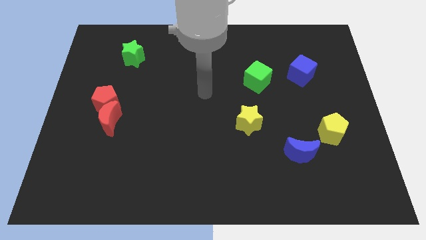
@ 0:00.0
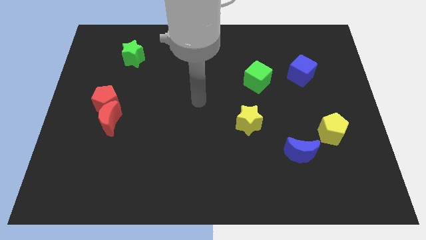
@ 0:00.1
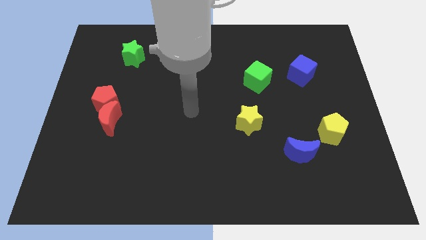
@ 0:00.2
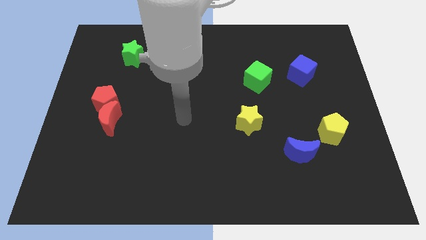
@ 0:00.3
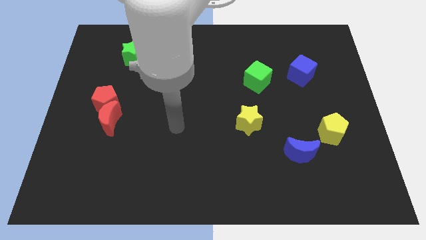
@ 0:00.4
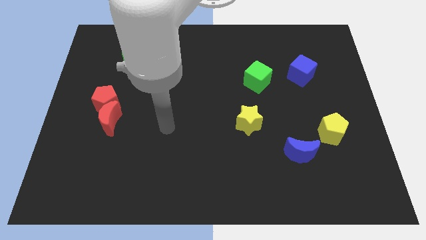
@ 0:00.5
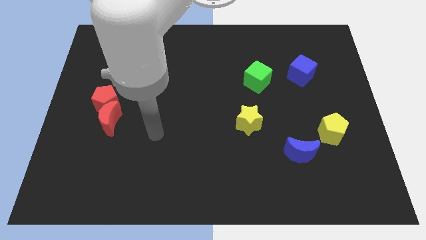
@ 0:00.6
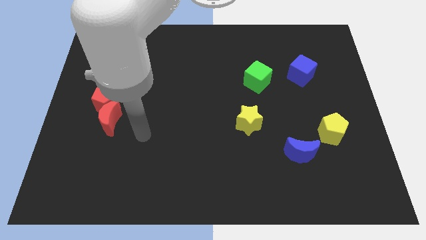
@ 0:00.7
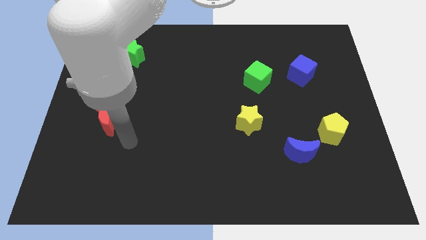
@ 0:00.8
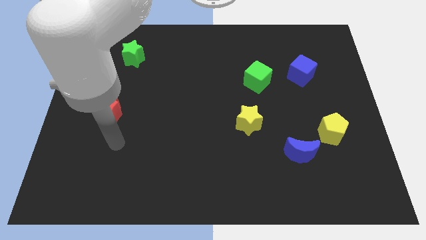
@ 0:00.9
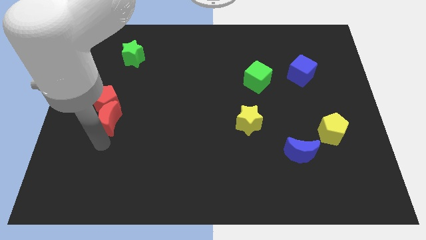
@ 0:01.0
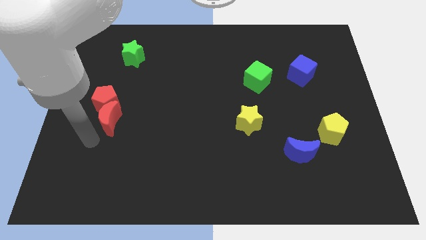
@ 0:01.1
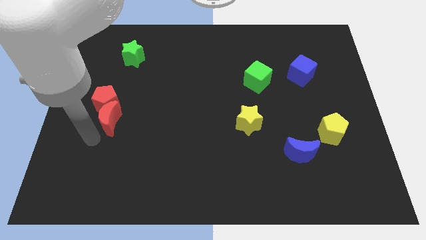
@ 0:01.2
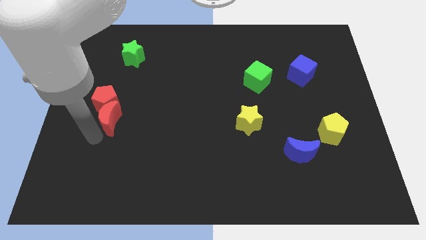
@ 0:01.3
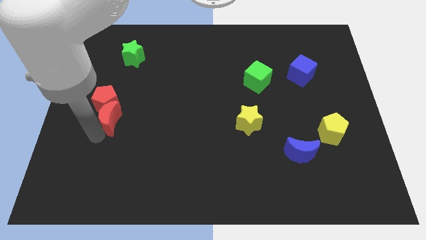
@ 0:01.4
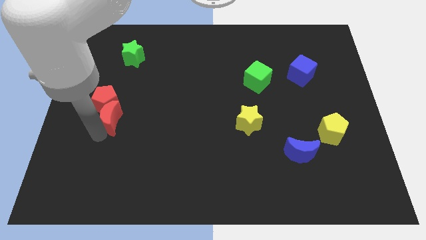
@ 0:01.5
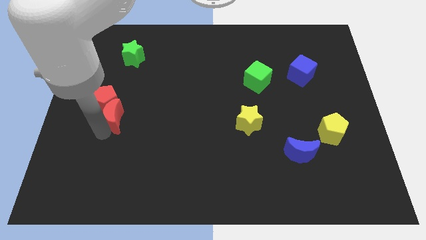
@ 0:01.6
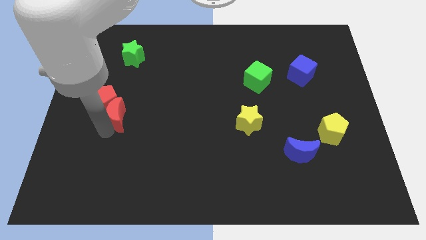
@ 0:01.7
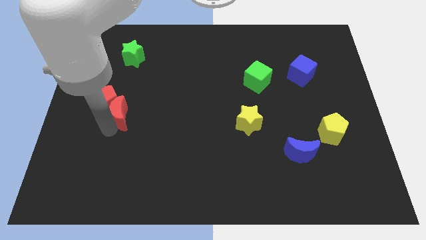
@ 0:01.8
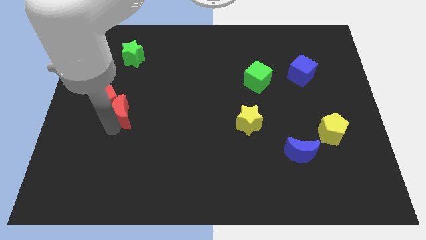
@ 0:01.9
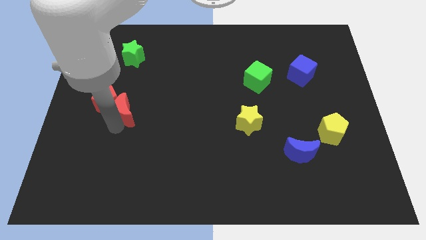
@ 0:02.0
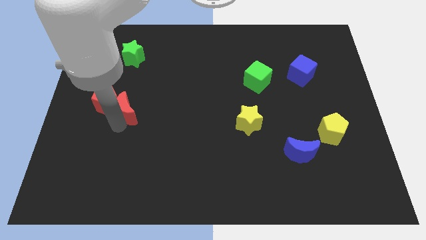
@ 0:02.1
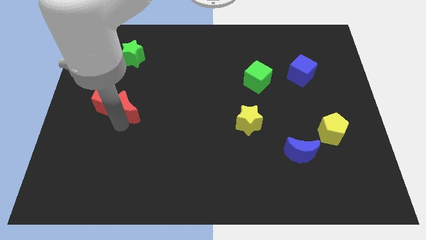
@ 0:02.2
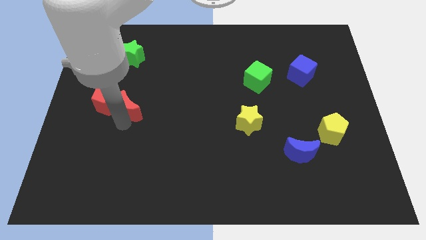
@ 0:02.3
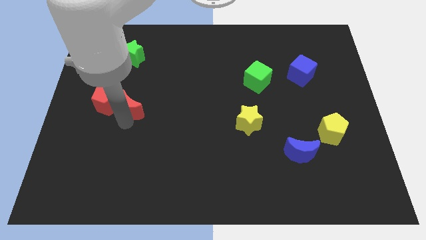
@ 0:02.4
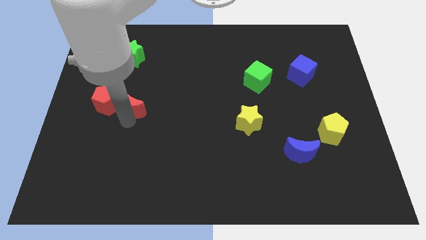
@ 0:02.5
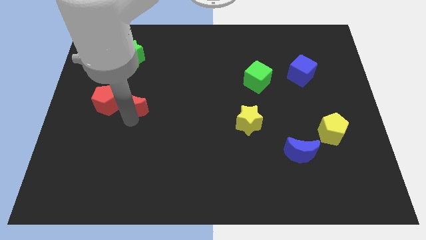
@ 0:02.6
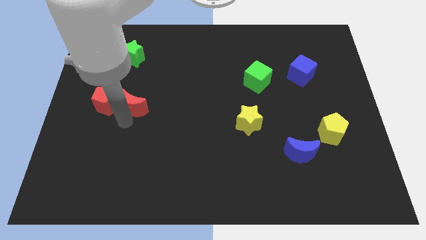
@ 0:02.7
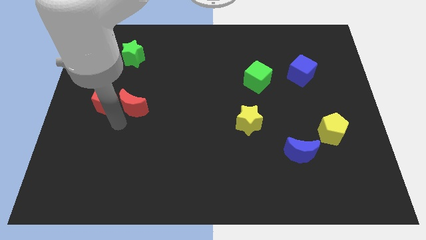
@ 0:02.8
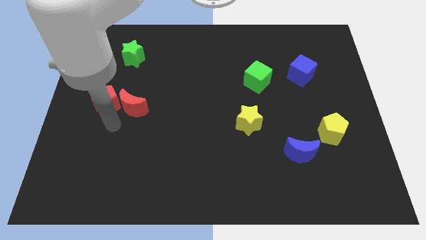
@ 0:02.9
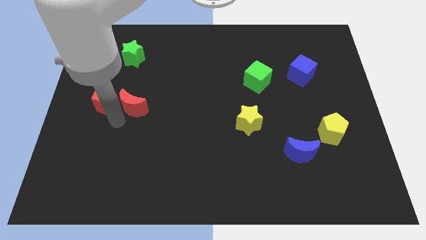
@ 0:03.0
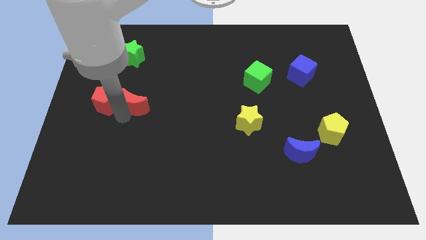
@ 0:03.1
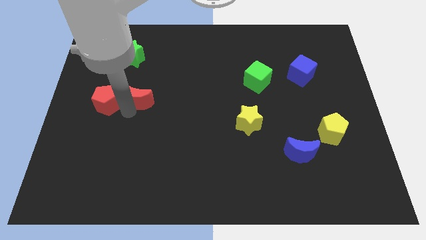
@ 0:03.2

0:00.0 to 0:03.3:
slide the red moon diagonally upwards and to the right a little bit

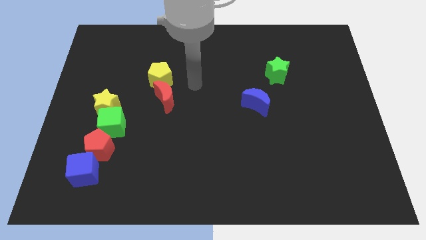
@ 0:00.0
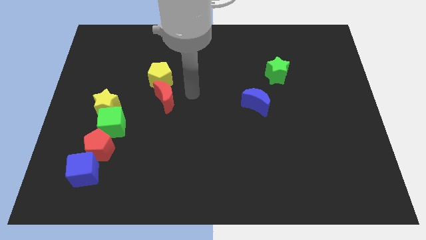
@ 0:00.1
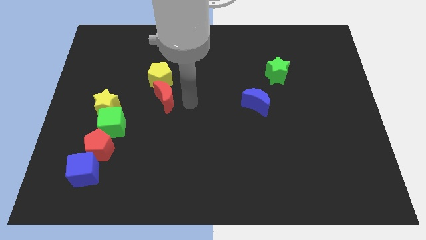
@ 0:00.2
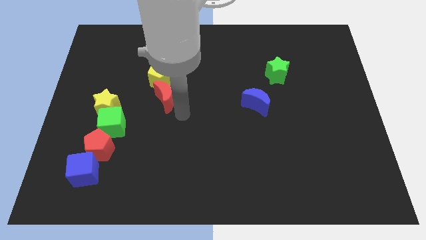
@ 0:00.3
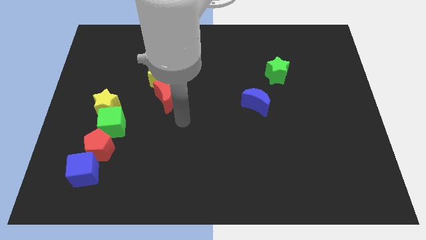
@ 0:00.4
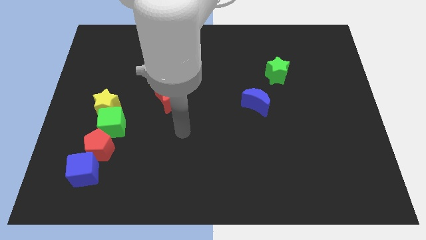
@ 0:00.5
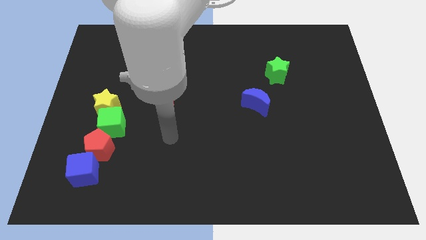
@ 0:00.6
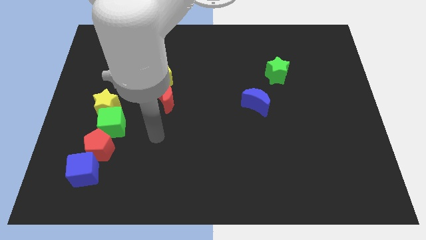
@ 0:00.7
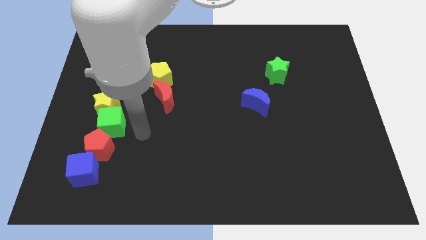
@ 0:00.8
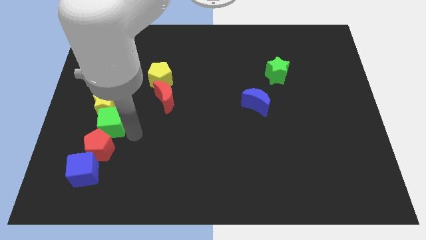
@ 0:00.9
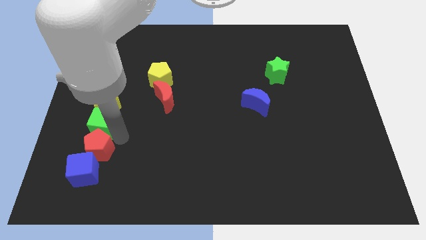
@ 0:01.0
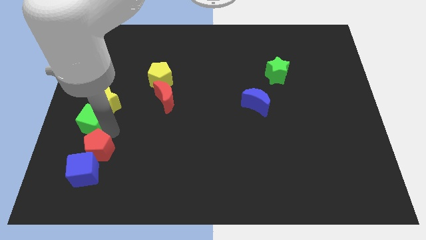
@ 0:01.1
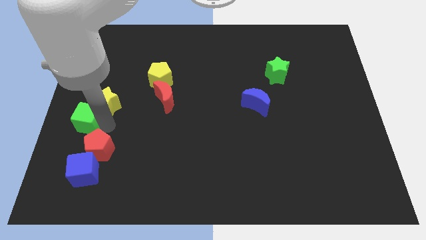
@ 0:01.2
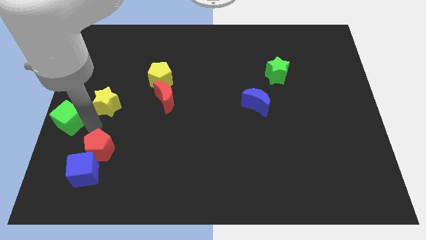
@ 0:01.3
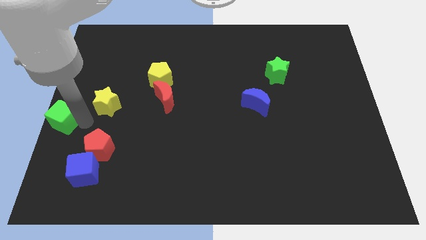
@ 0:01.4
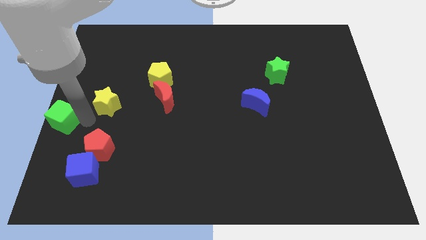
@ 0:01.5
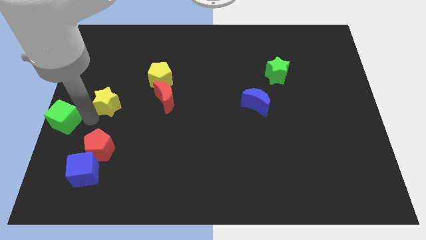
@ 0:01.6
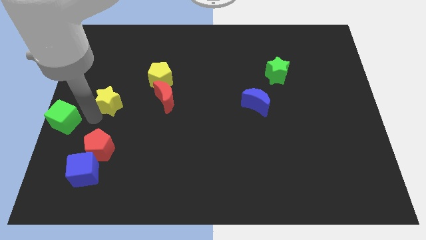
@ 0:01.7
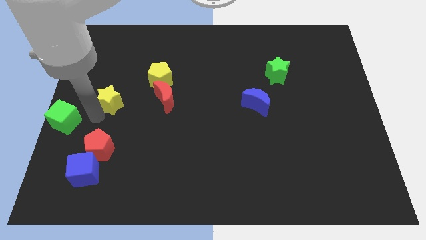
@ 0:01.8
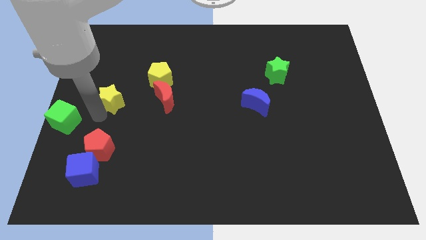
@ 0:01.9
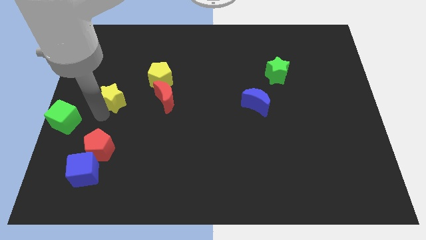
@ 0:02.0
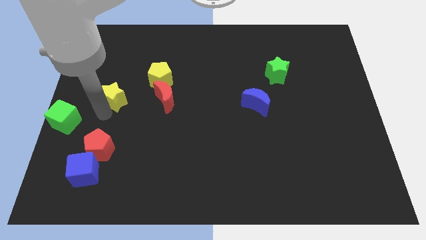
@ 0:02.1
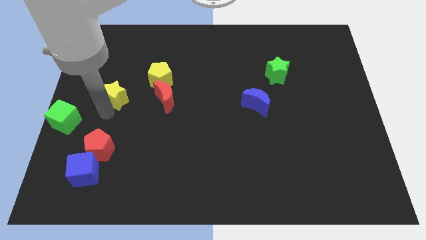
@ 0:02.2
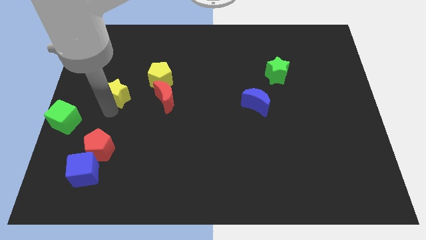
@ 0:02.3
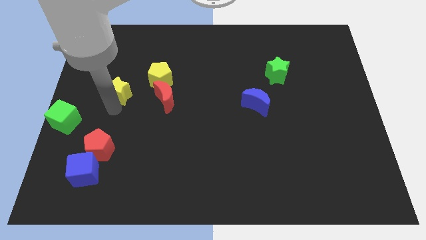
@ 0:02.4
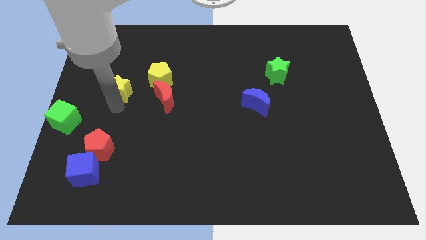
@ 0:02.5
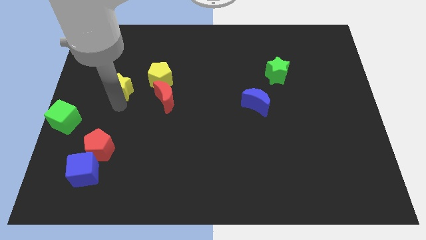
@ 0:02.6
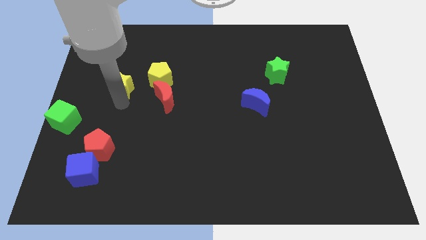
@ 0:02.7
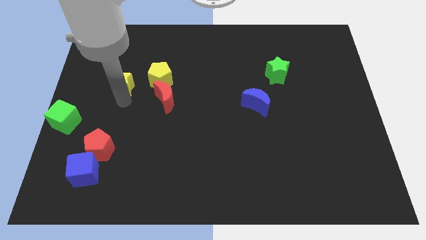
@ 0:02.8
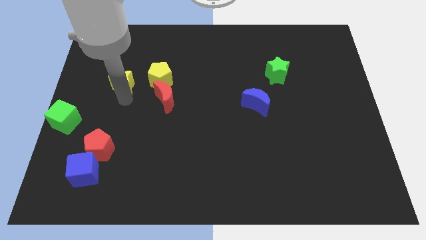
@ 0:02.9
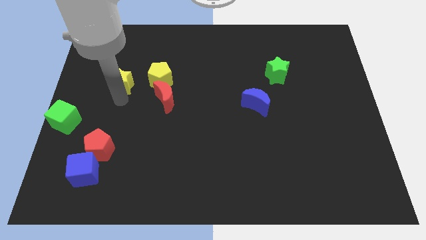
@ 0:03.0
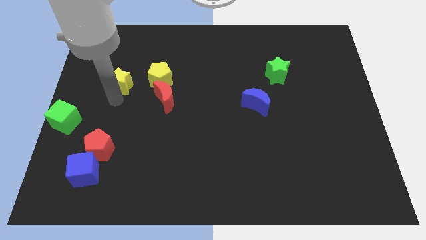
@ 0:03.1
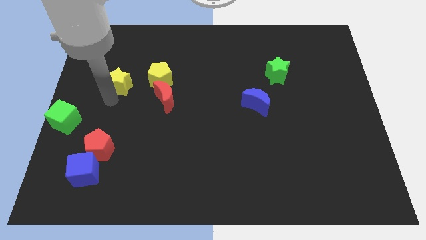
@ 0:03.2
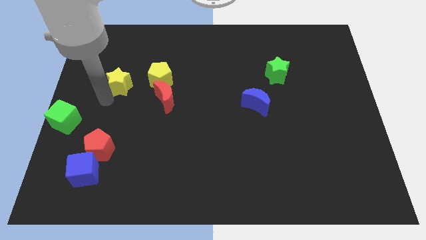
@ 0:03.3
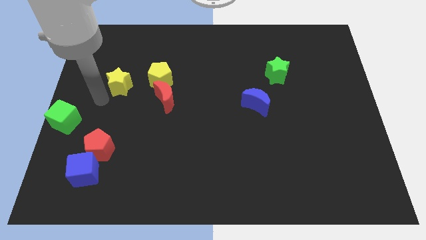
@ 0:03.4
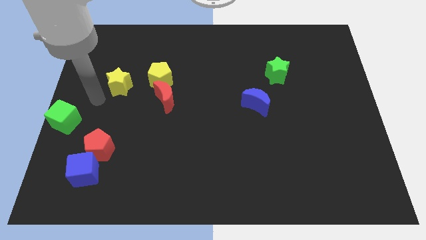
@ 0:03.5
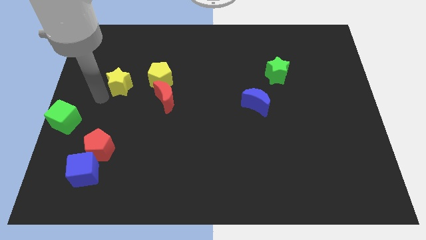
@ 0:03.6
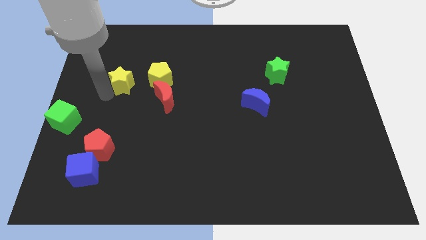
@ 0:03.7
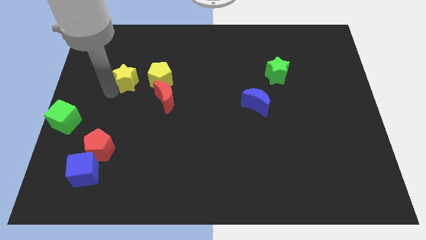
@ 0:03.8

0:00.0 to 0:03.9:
slightly move the yellow star upwards and to the right diagonally

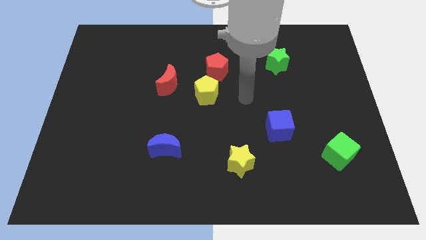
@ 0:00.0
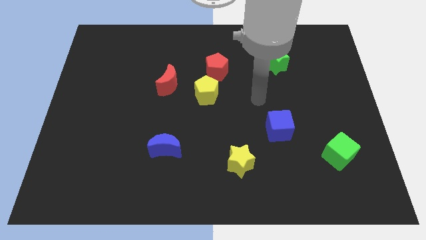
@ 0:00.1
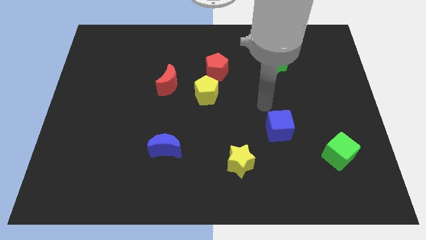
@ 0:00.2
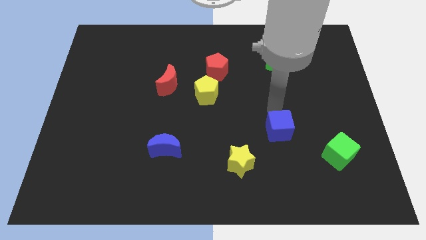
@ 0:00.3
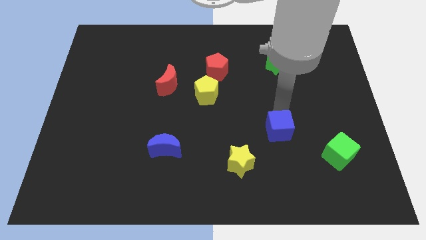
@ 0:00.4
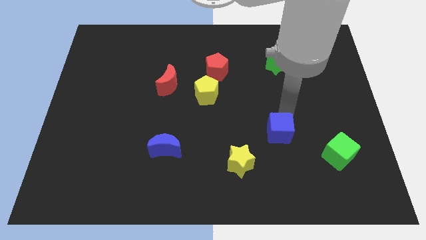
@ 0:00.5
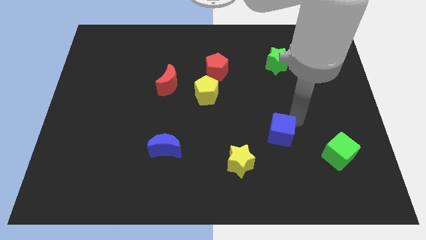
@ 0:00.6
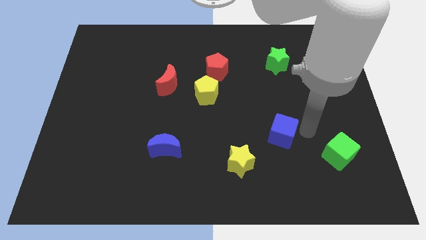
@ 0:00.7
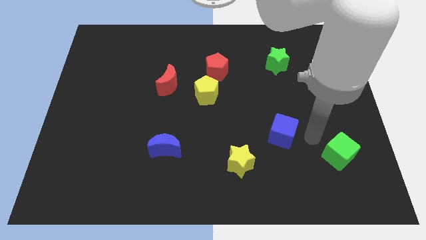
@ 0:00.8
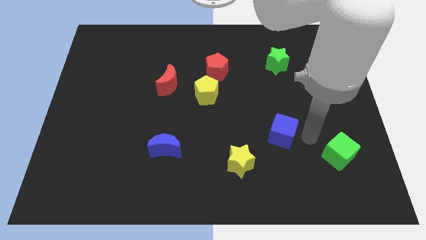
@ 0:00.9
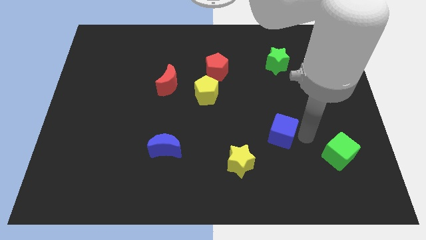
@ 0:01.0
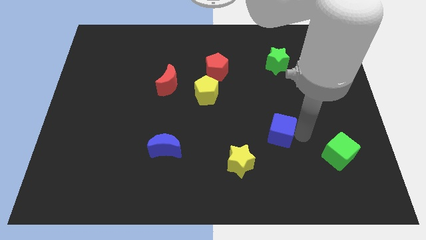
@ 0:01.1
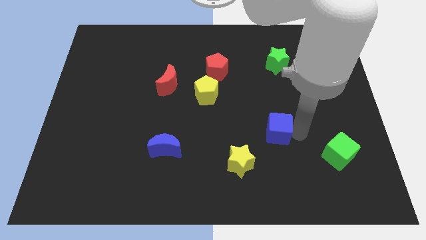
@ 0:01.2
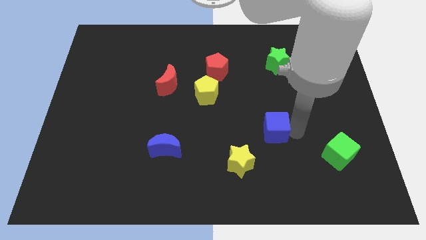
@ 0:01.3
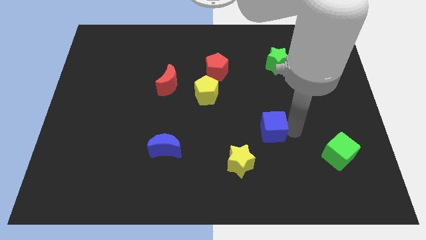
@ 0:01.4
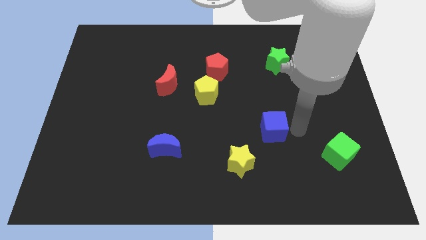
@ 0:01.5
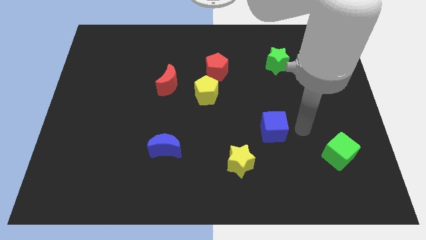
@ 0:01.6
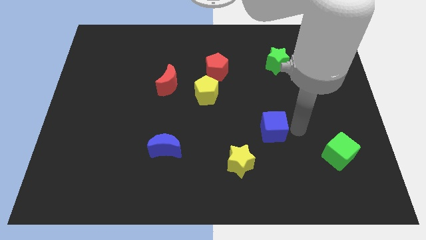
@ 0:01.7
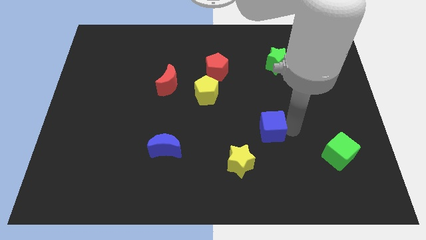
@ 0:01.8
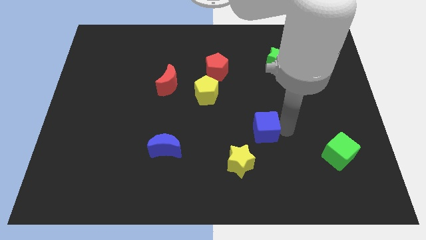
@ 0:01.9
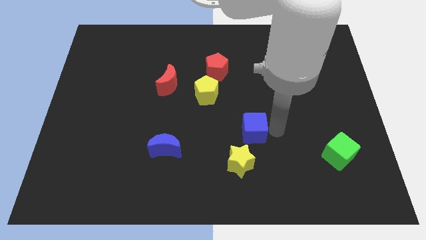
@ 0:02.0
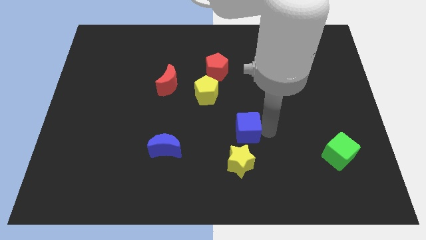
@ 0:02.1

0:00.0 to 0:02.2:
slide the blue cube a bit left
